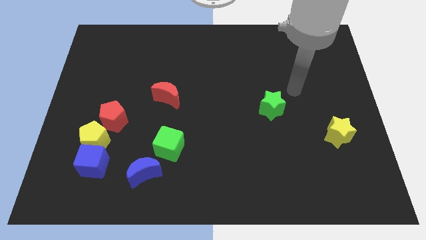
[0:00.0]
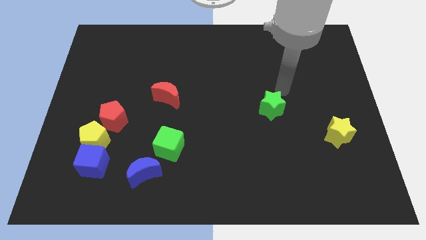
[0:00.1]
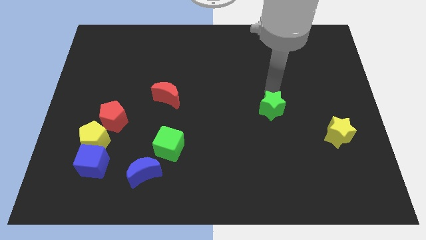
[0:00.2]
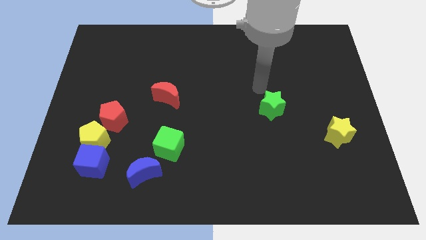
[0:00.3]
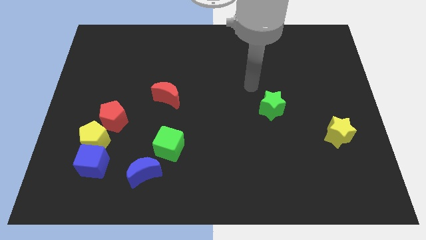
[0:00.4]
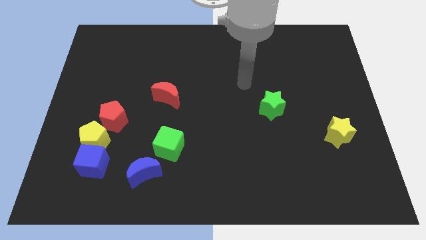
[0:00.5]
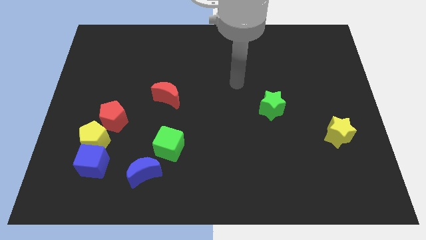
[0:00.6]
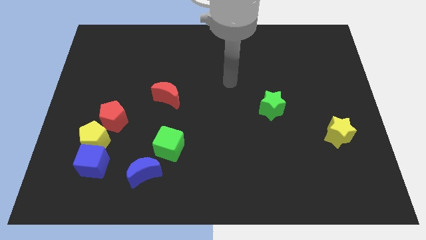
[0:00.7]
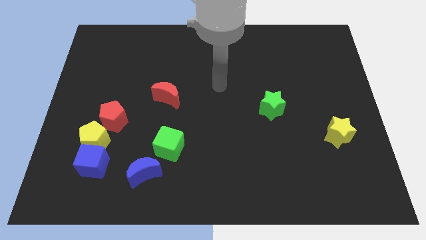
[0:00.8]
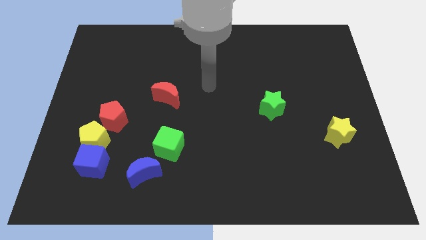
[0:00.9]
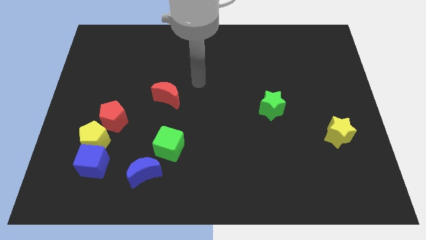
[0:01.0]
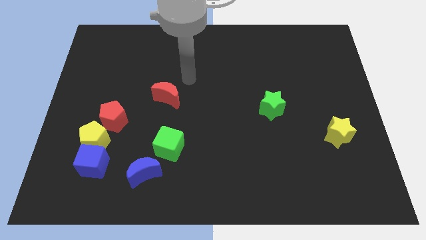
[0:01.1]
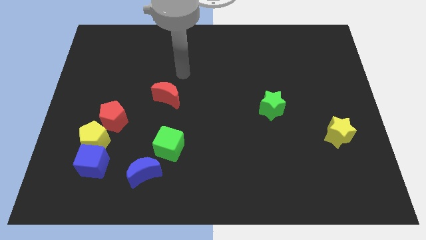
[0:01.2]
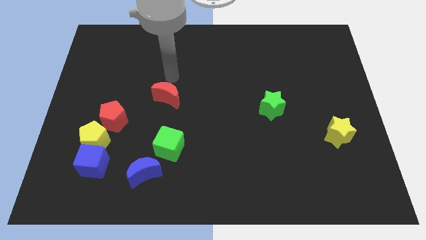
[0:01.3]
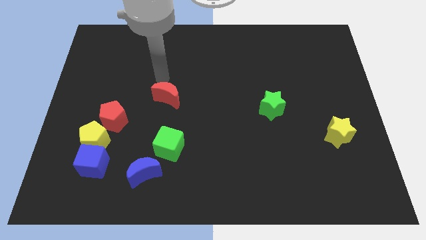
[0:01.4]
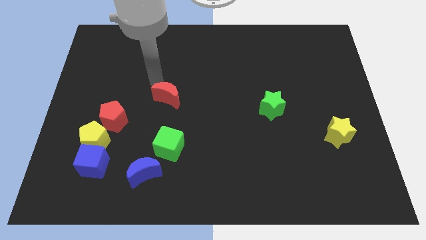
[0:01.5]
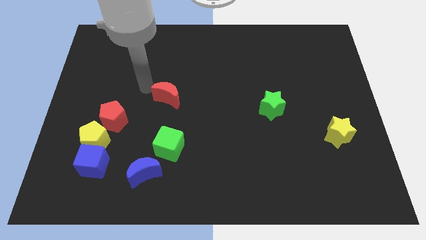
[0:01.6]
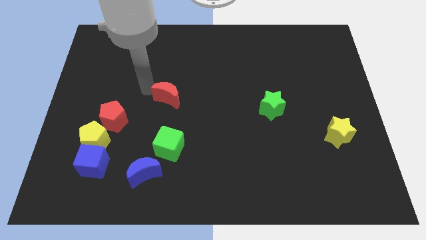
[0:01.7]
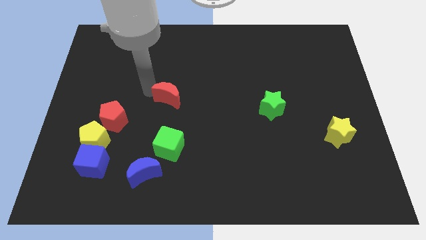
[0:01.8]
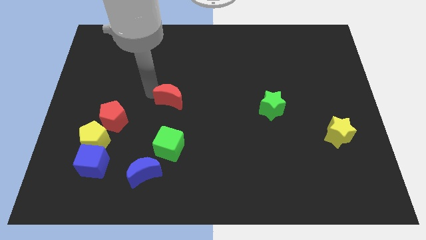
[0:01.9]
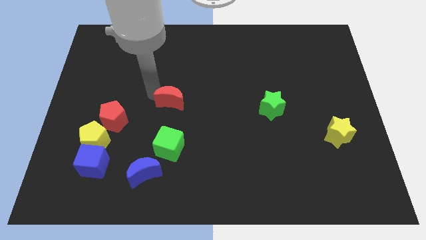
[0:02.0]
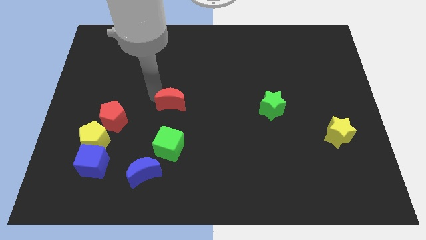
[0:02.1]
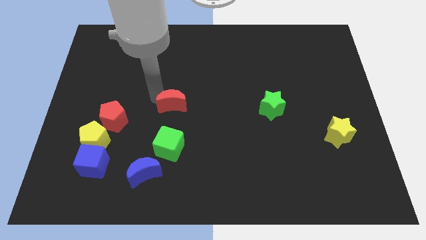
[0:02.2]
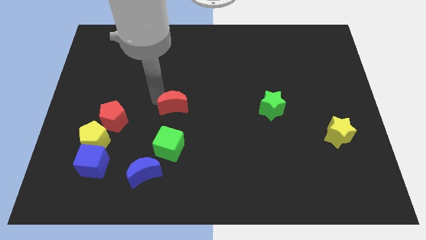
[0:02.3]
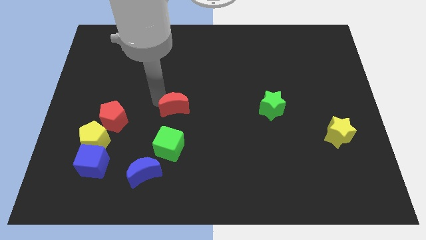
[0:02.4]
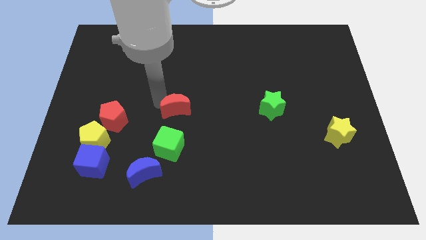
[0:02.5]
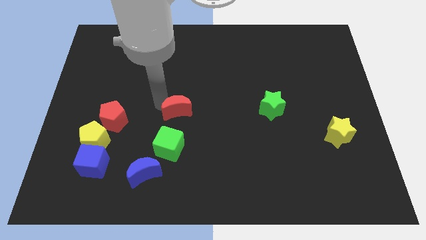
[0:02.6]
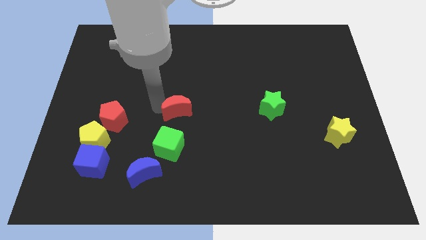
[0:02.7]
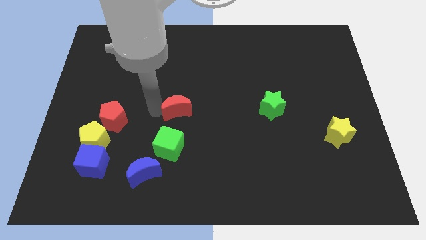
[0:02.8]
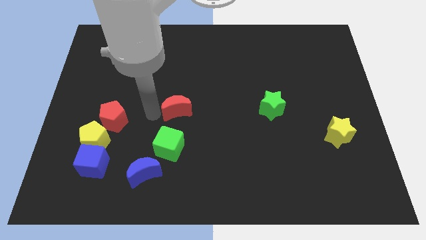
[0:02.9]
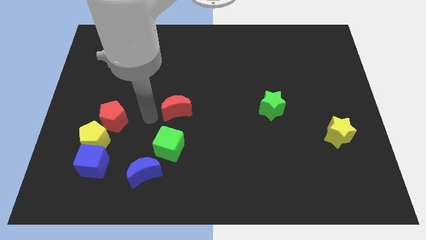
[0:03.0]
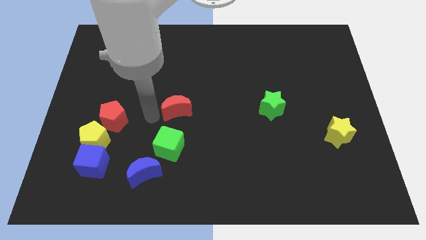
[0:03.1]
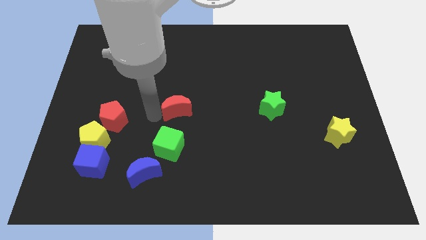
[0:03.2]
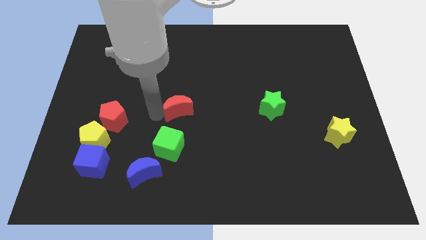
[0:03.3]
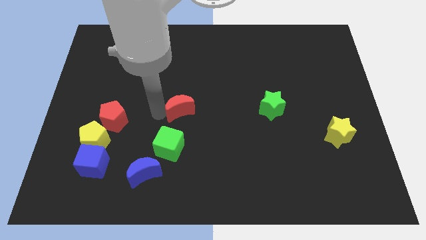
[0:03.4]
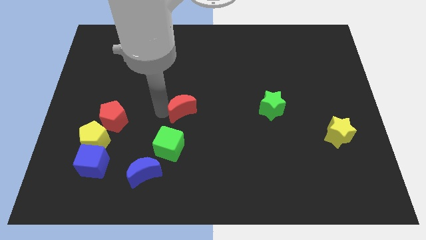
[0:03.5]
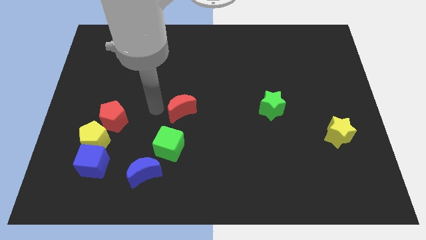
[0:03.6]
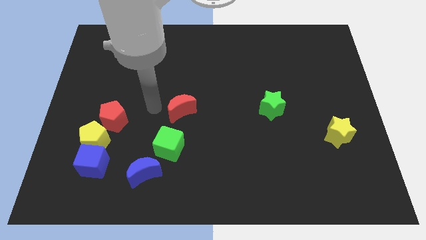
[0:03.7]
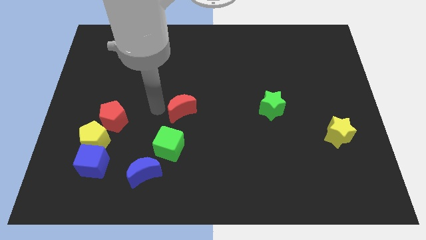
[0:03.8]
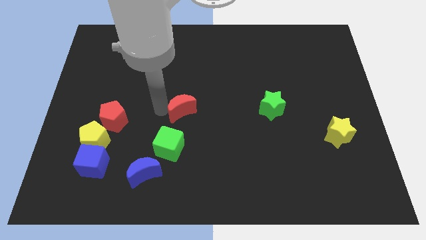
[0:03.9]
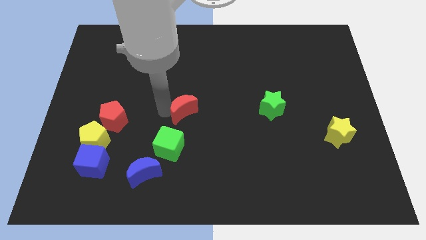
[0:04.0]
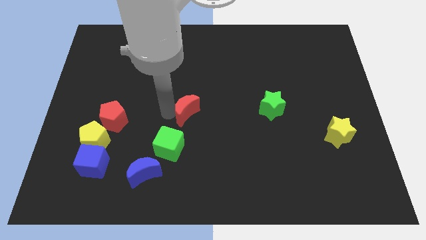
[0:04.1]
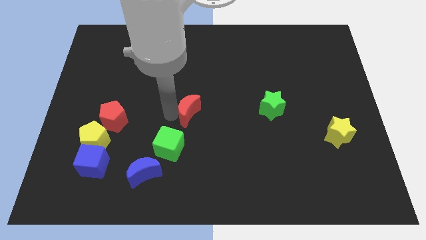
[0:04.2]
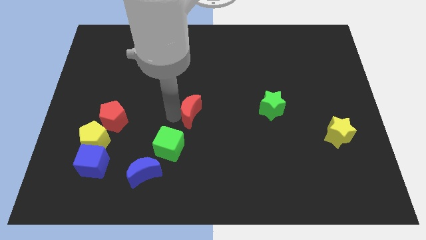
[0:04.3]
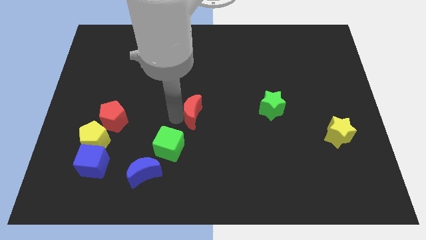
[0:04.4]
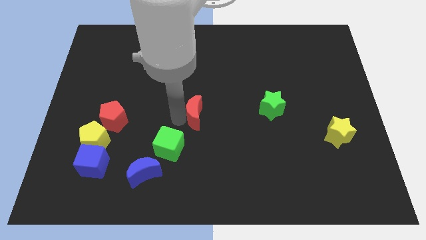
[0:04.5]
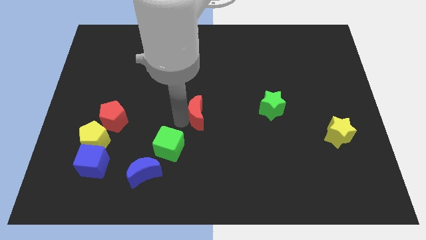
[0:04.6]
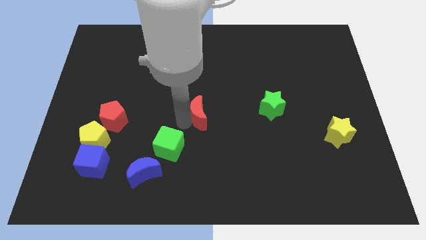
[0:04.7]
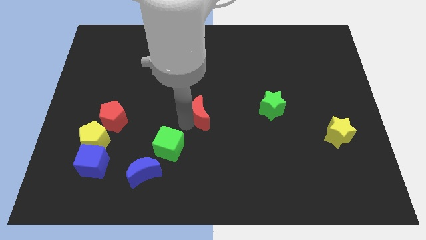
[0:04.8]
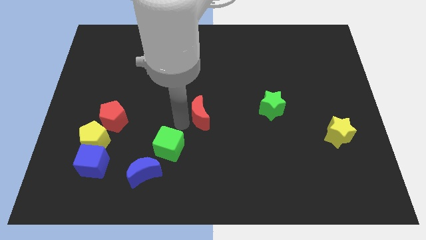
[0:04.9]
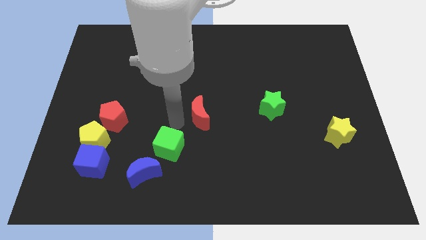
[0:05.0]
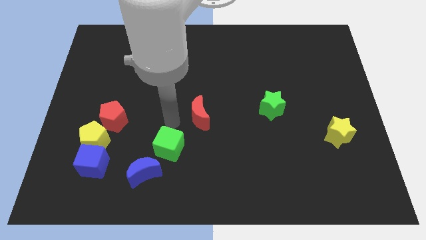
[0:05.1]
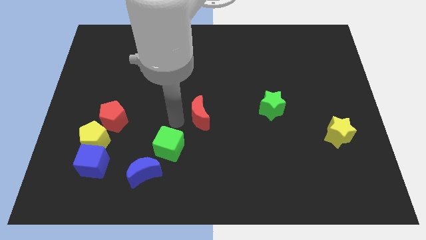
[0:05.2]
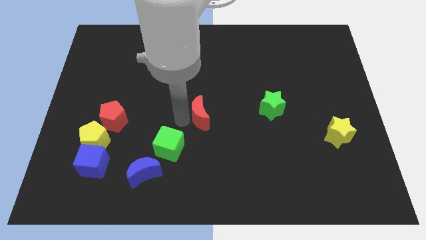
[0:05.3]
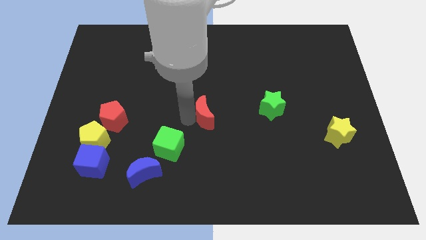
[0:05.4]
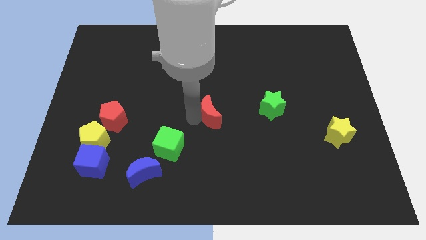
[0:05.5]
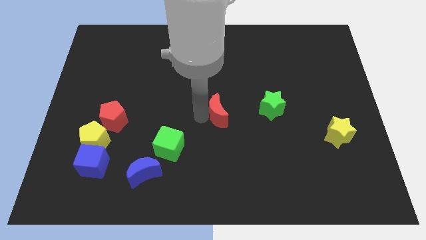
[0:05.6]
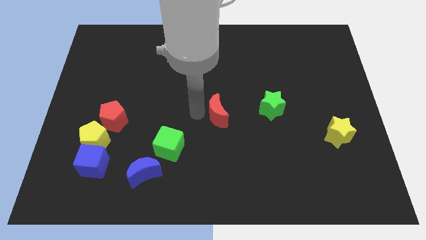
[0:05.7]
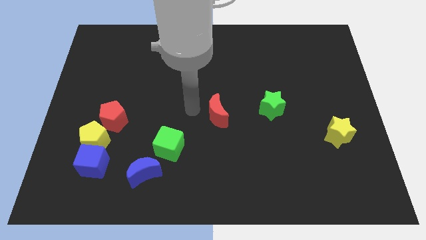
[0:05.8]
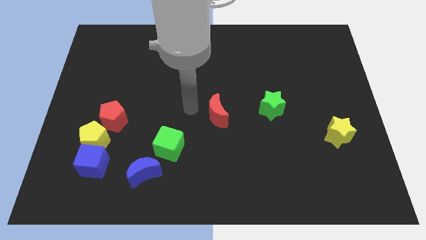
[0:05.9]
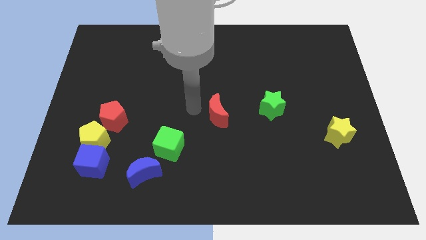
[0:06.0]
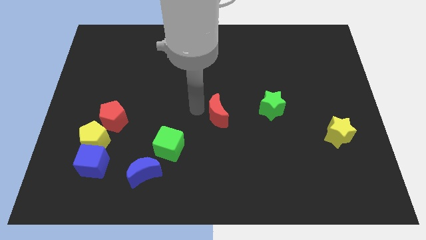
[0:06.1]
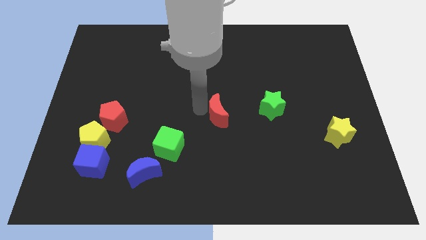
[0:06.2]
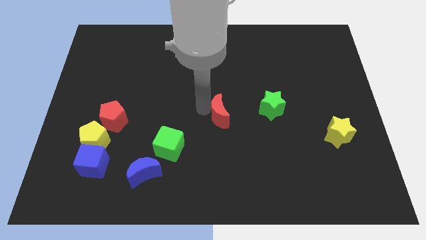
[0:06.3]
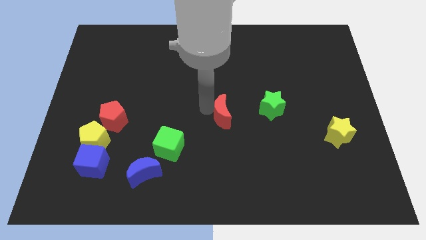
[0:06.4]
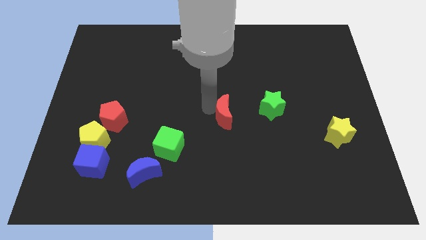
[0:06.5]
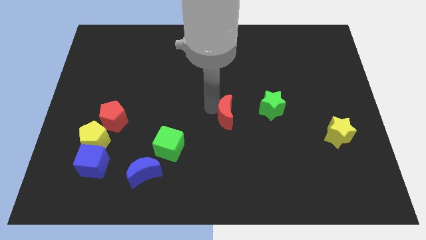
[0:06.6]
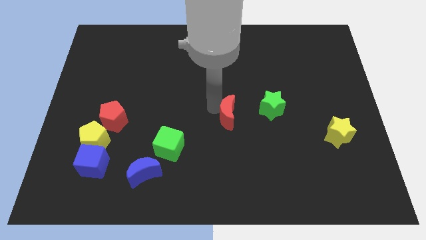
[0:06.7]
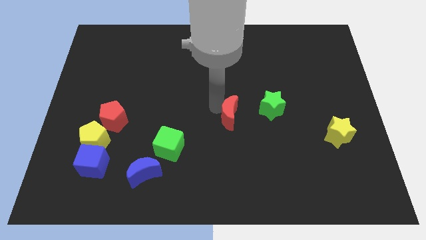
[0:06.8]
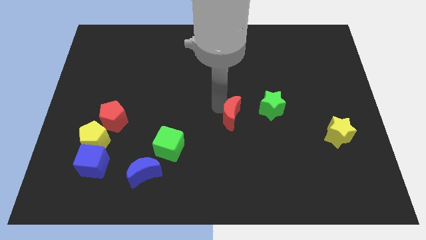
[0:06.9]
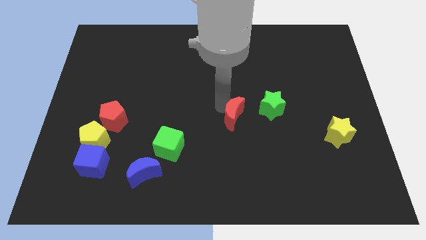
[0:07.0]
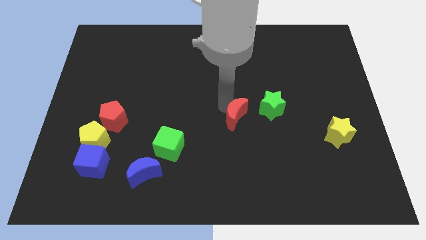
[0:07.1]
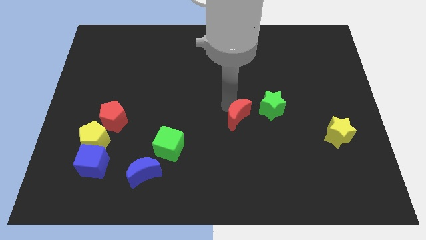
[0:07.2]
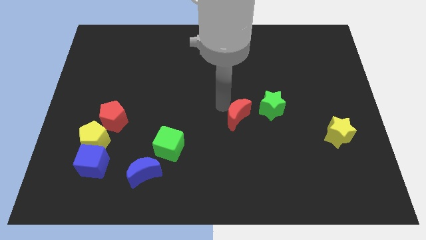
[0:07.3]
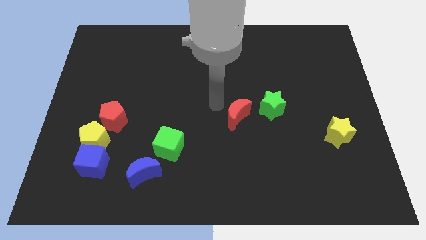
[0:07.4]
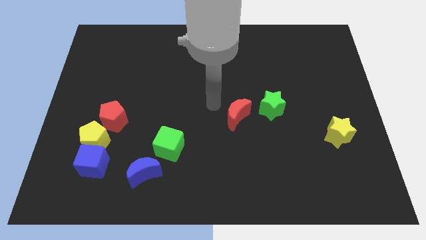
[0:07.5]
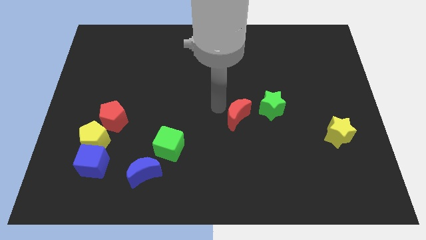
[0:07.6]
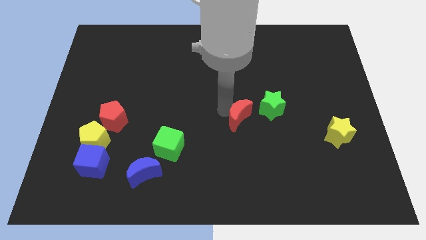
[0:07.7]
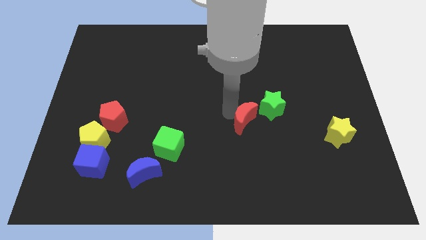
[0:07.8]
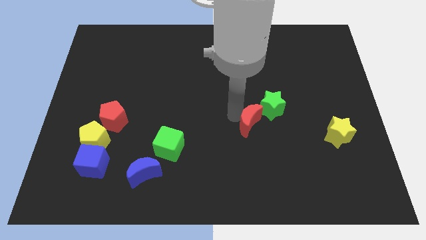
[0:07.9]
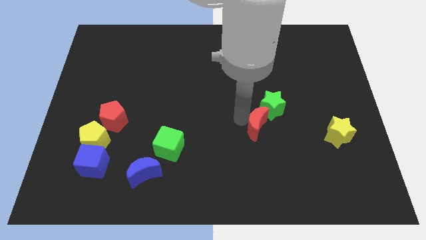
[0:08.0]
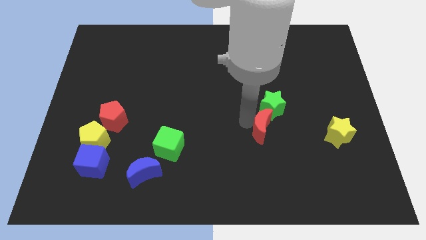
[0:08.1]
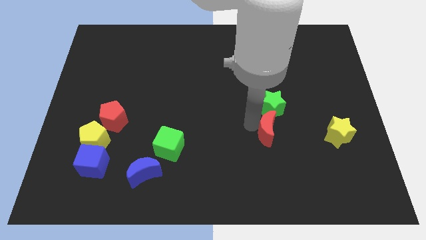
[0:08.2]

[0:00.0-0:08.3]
move the red moon to the left of the yellow star
